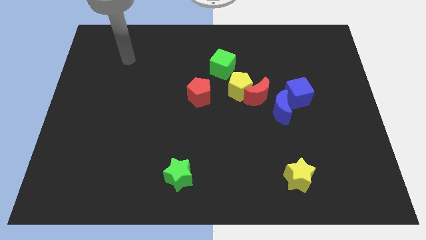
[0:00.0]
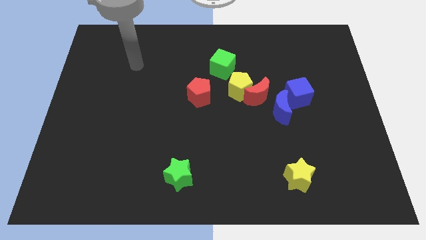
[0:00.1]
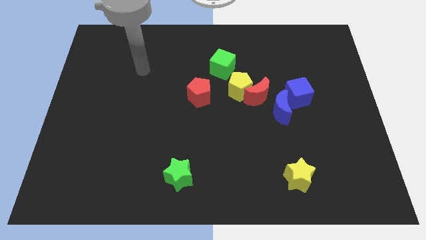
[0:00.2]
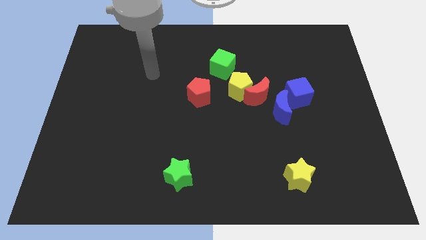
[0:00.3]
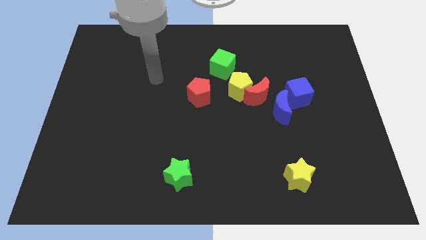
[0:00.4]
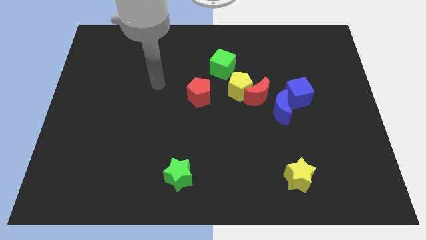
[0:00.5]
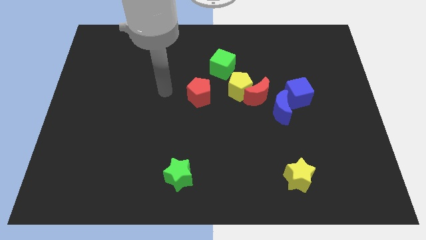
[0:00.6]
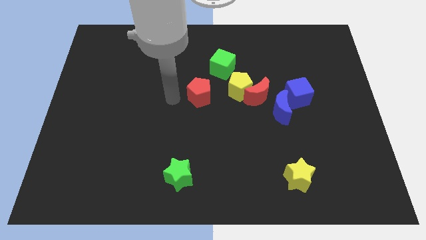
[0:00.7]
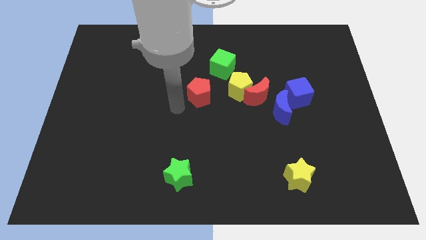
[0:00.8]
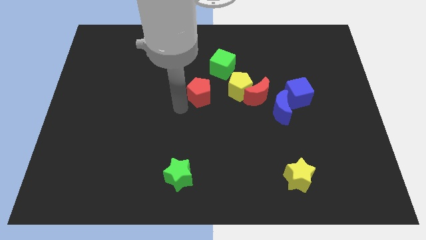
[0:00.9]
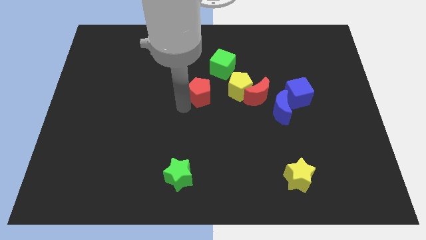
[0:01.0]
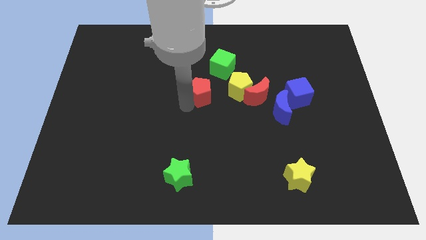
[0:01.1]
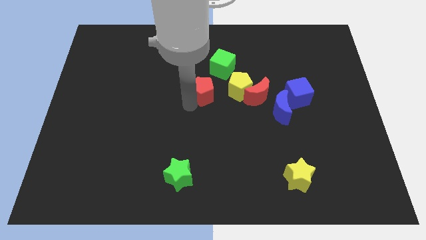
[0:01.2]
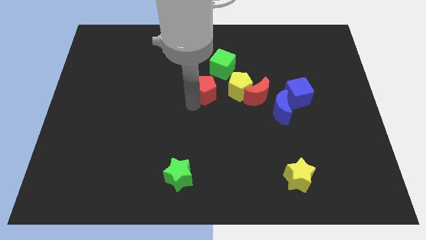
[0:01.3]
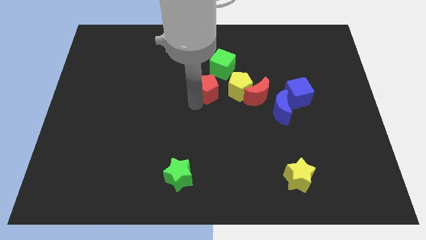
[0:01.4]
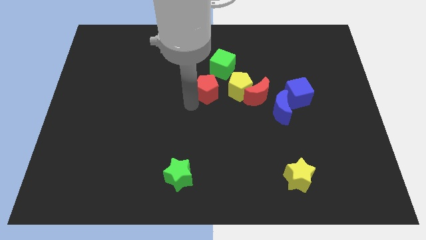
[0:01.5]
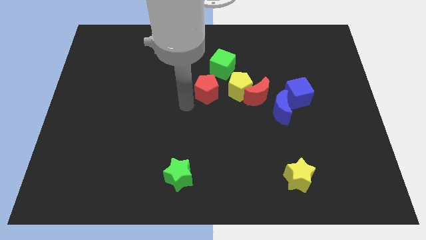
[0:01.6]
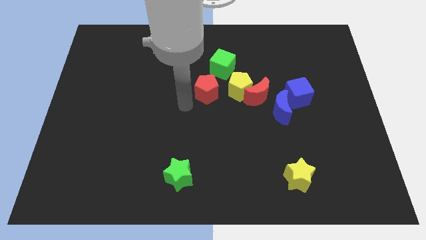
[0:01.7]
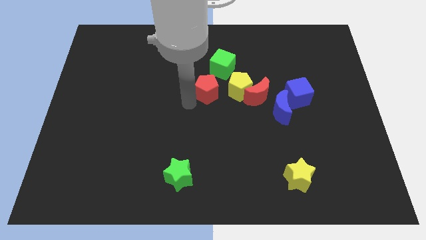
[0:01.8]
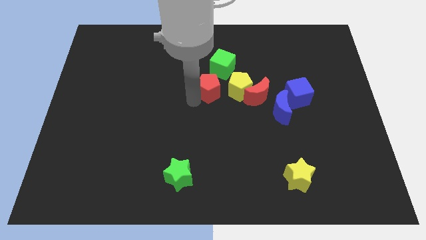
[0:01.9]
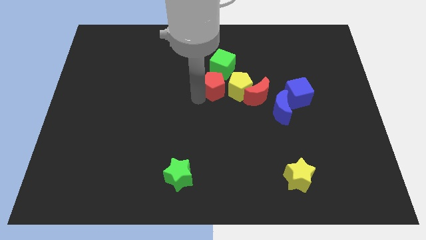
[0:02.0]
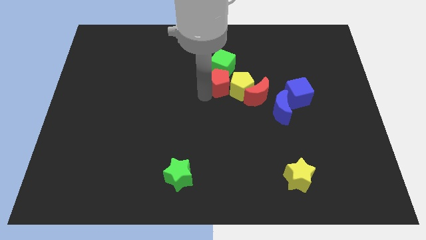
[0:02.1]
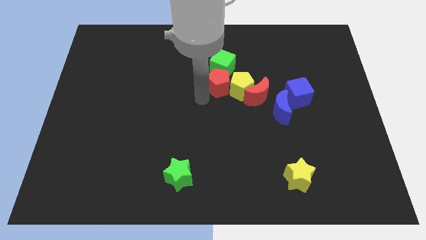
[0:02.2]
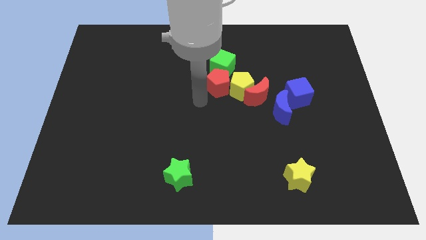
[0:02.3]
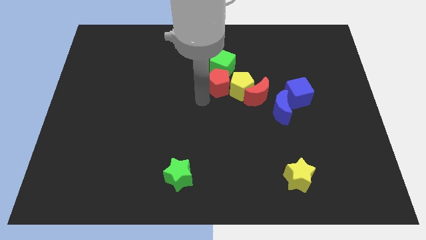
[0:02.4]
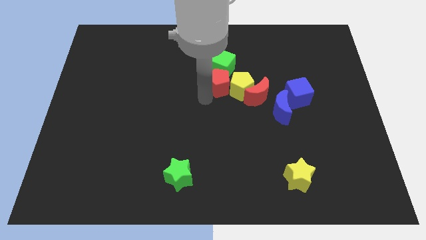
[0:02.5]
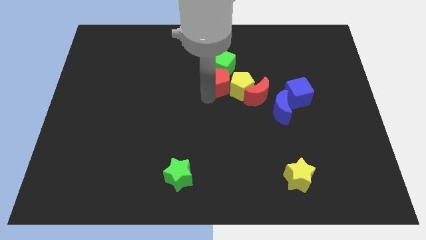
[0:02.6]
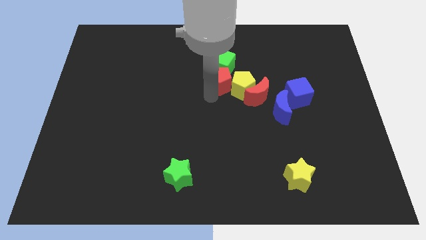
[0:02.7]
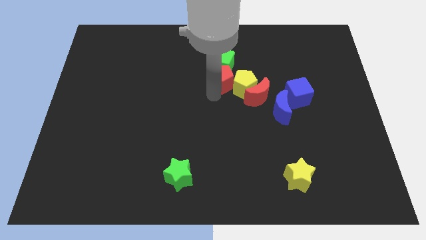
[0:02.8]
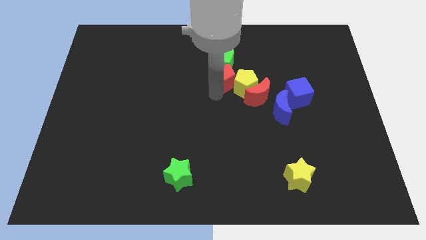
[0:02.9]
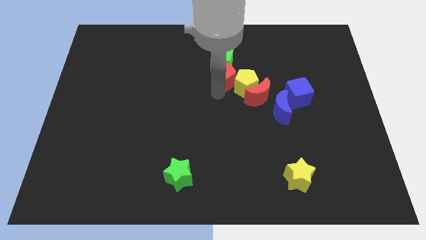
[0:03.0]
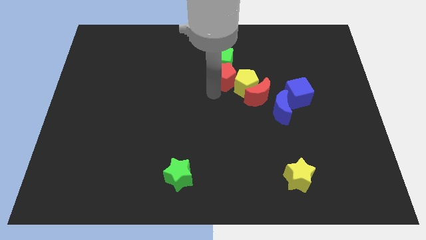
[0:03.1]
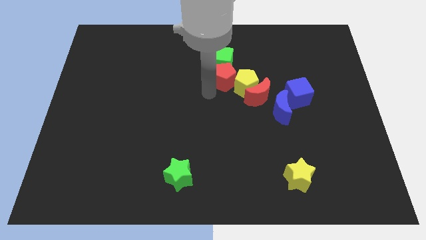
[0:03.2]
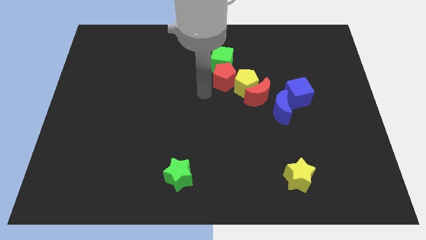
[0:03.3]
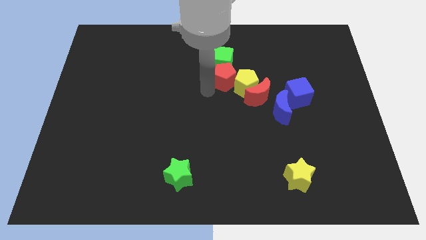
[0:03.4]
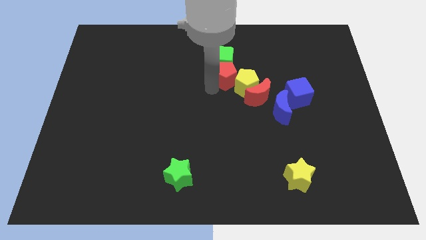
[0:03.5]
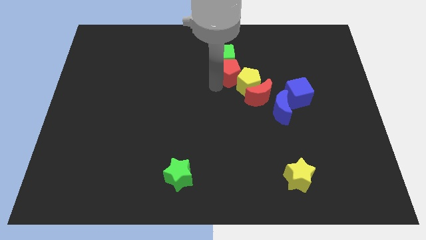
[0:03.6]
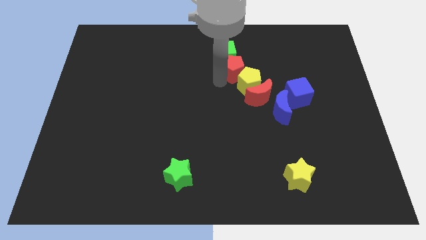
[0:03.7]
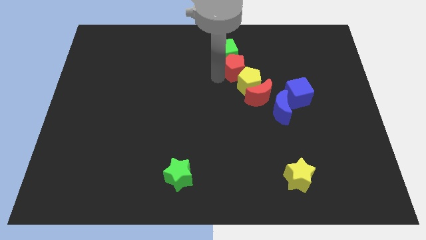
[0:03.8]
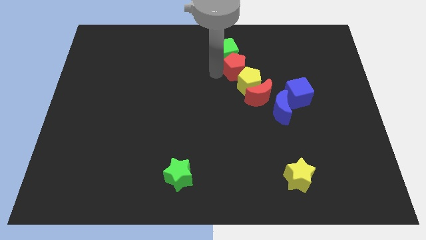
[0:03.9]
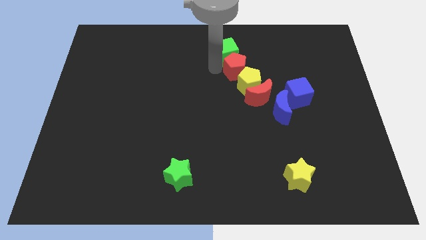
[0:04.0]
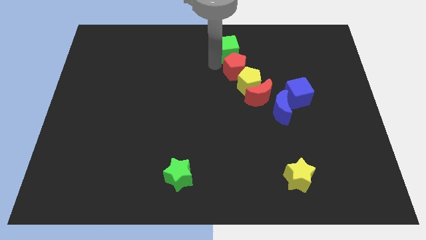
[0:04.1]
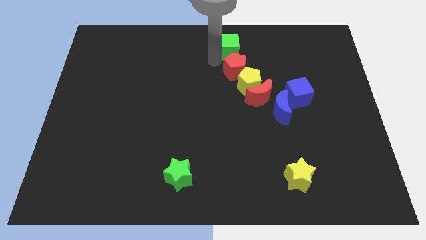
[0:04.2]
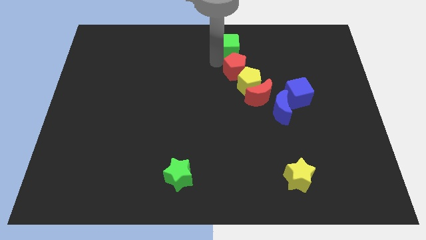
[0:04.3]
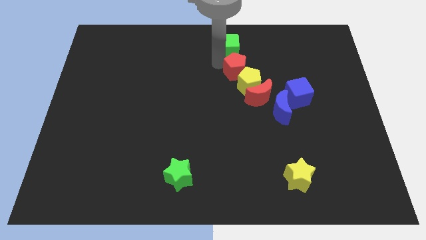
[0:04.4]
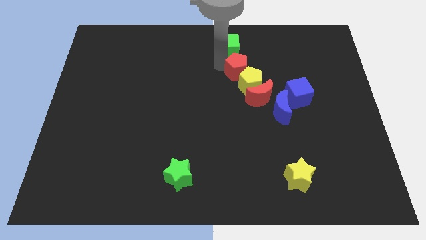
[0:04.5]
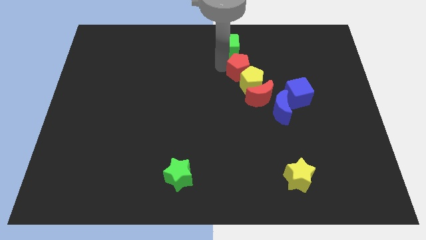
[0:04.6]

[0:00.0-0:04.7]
slide the red pentagon right slightly

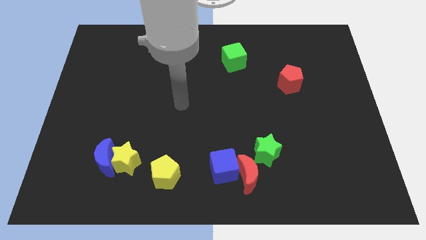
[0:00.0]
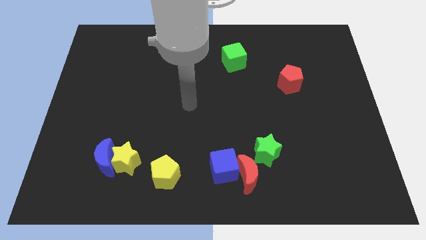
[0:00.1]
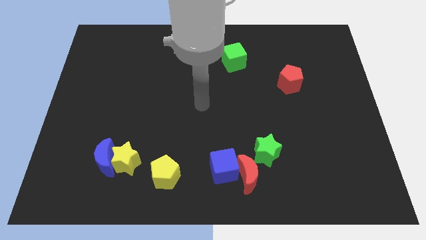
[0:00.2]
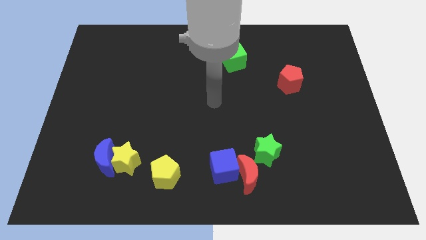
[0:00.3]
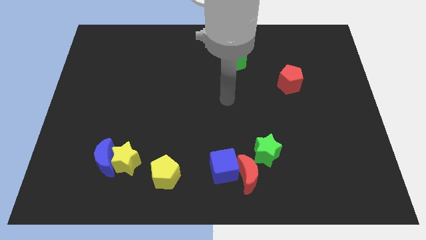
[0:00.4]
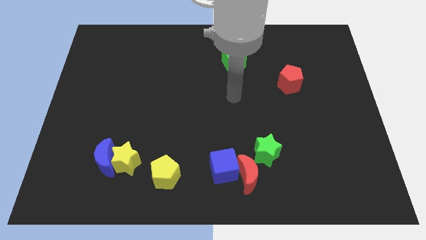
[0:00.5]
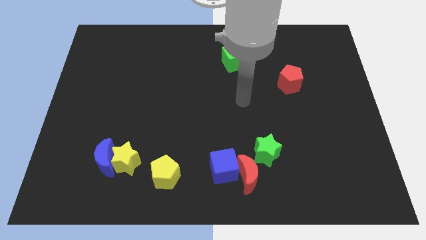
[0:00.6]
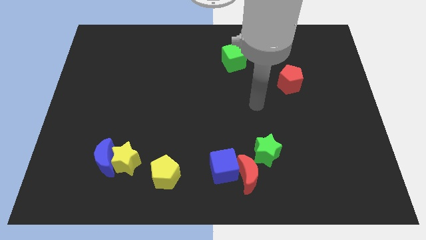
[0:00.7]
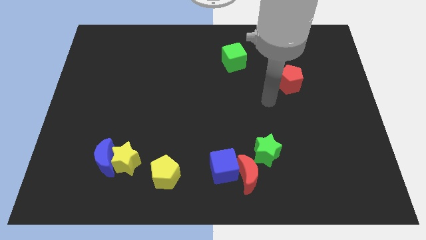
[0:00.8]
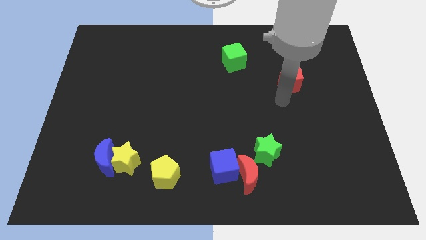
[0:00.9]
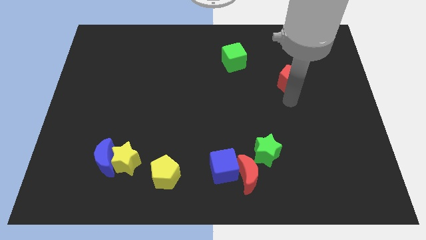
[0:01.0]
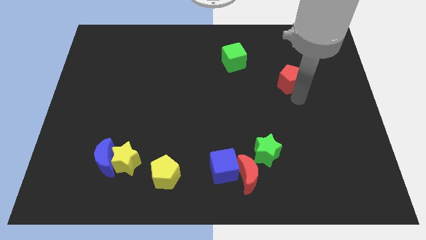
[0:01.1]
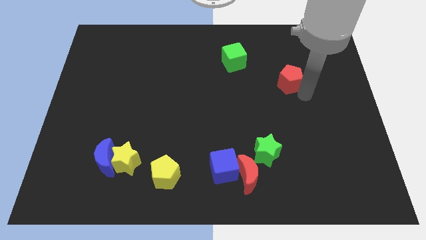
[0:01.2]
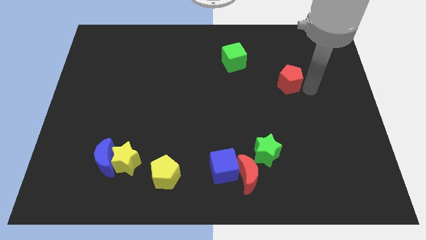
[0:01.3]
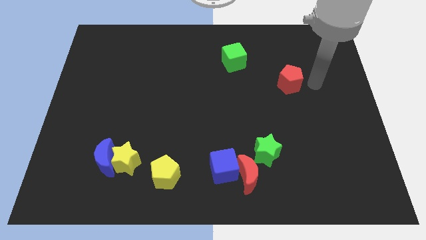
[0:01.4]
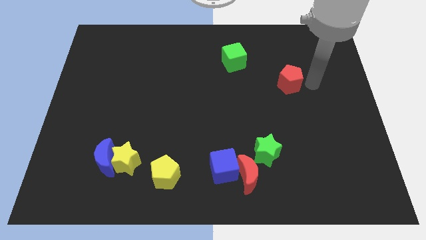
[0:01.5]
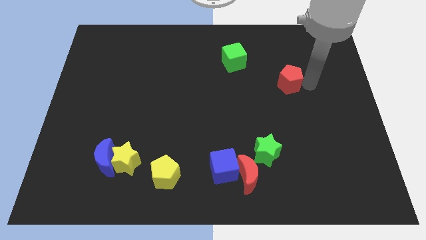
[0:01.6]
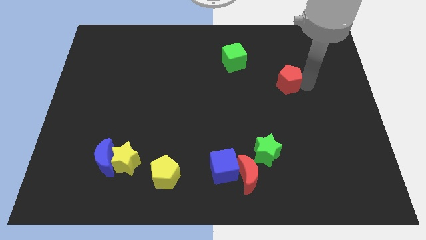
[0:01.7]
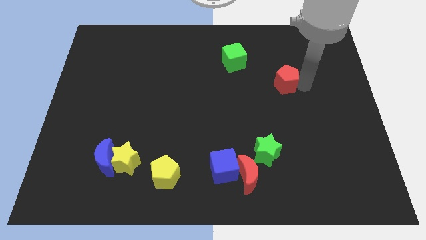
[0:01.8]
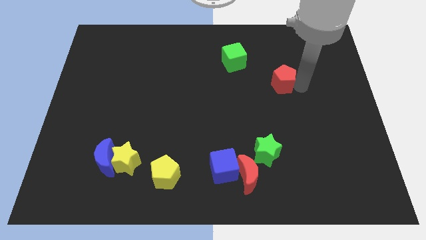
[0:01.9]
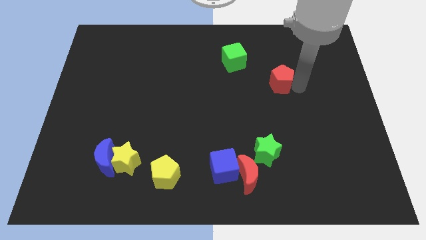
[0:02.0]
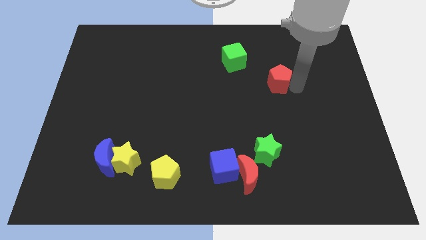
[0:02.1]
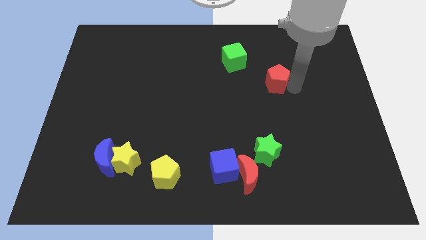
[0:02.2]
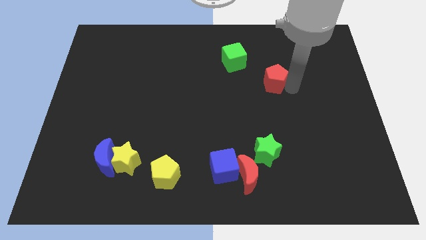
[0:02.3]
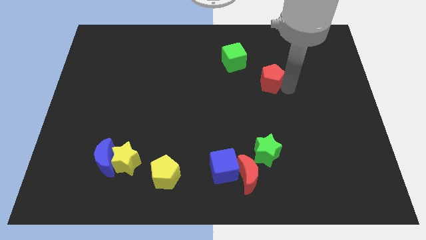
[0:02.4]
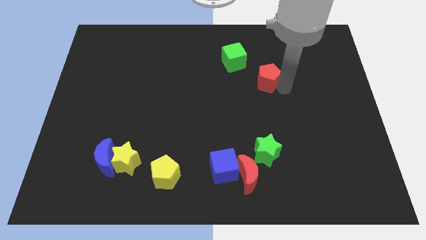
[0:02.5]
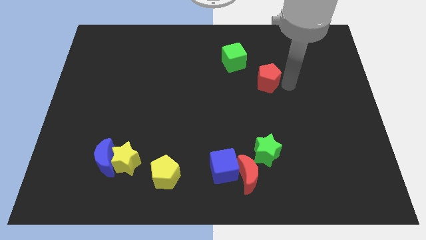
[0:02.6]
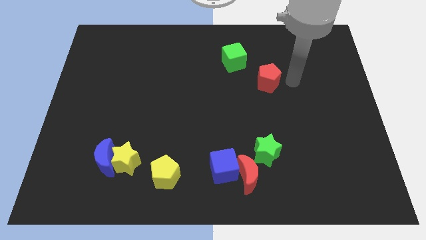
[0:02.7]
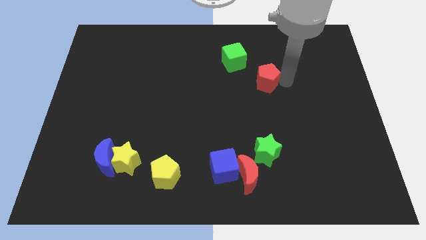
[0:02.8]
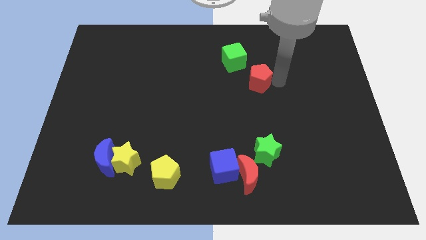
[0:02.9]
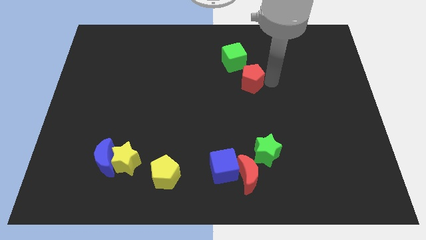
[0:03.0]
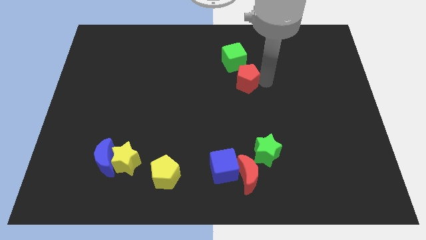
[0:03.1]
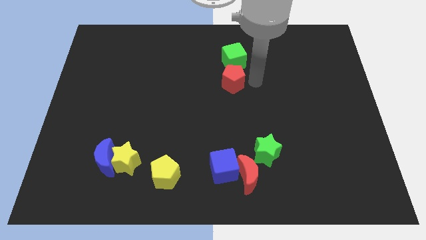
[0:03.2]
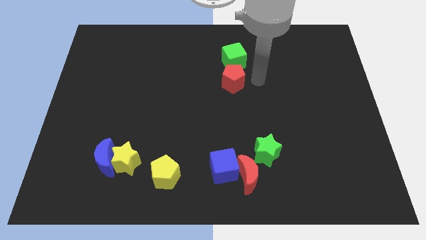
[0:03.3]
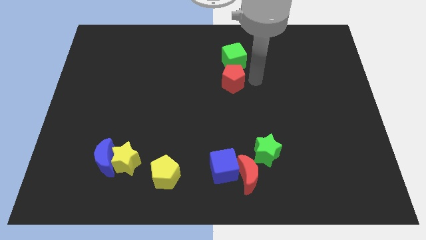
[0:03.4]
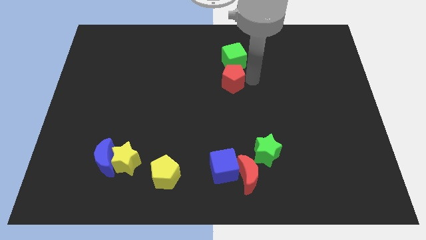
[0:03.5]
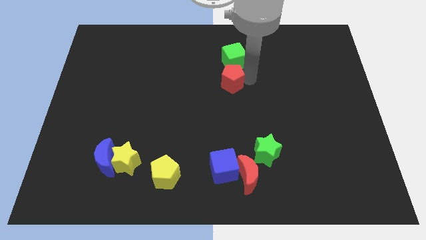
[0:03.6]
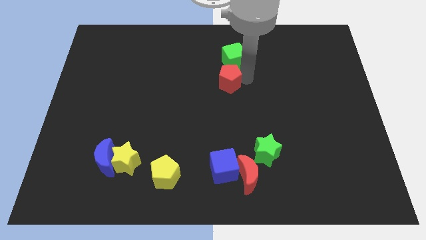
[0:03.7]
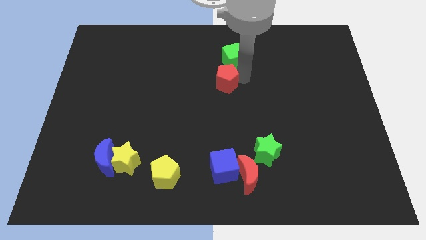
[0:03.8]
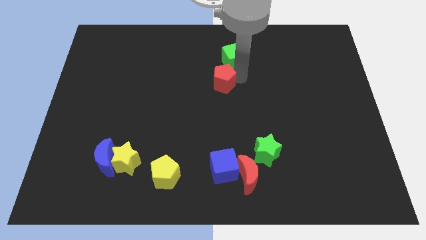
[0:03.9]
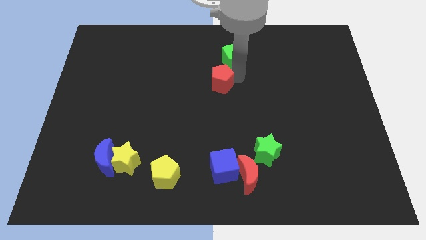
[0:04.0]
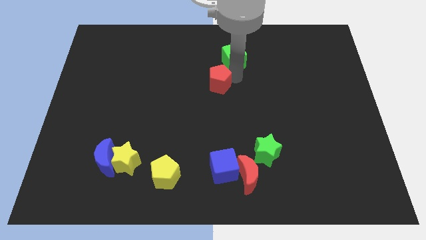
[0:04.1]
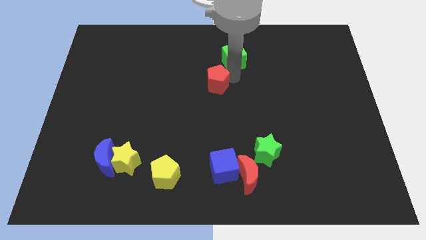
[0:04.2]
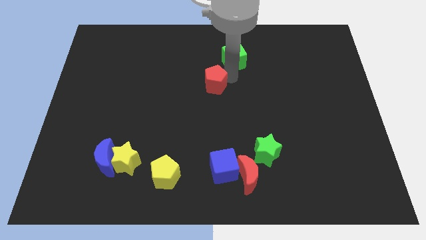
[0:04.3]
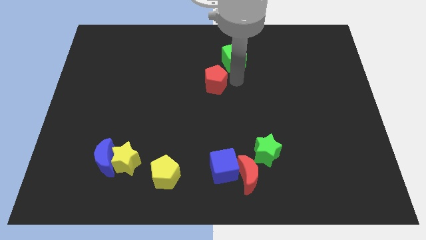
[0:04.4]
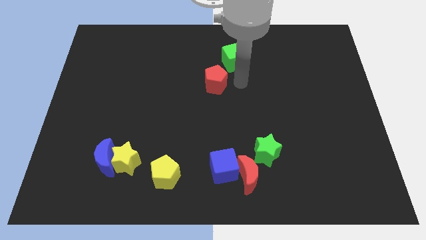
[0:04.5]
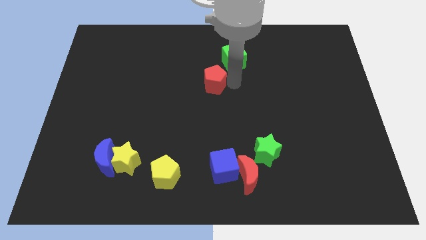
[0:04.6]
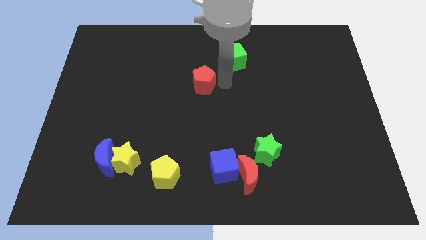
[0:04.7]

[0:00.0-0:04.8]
slide the red pentagon to the left
